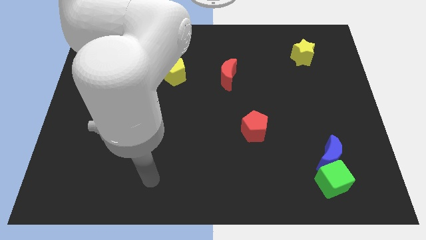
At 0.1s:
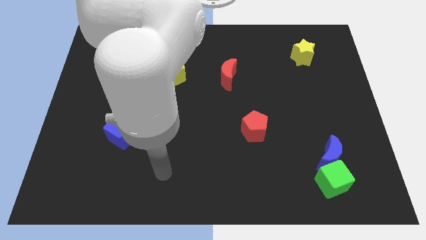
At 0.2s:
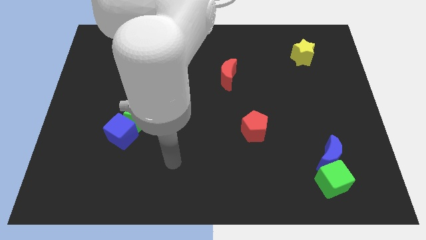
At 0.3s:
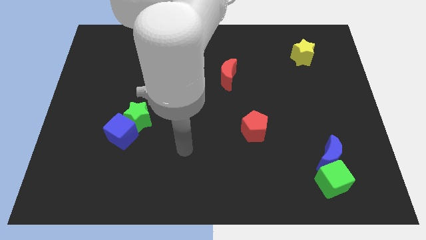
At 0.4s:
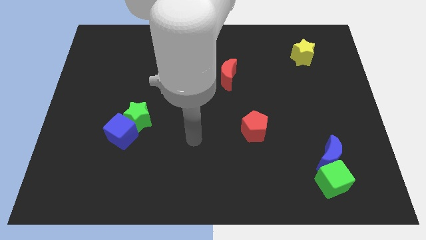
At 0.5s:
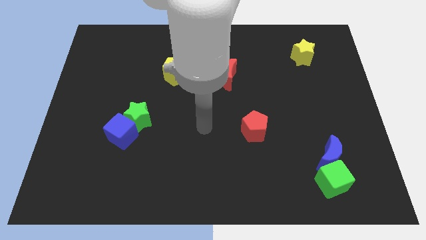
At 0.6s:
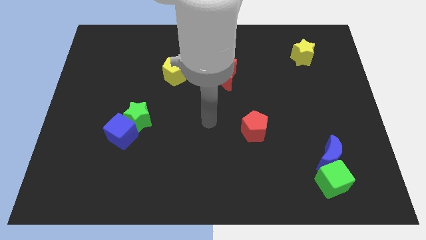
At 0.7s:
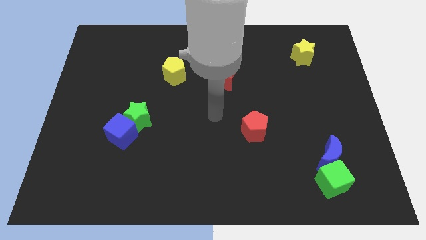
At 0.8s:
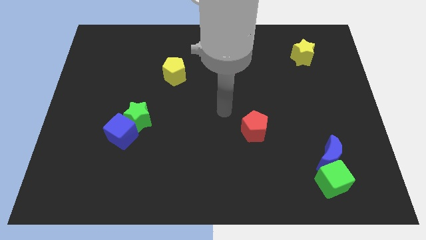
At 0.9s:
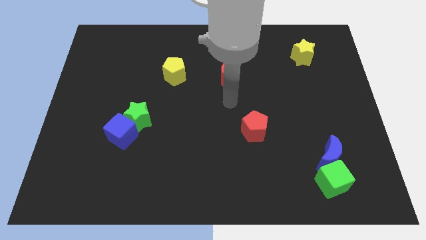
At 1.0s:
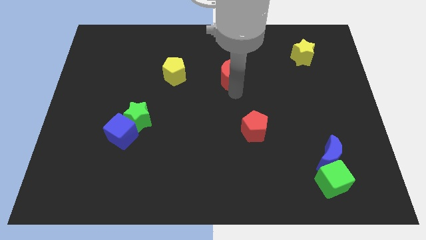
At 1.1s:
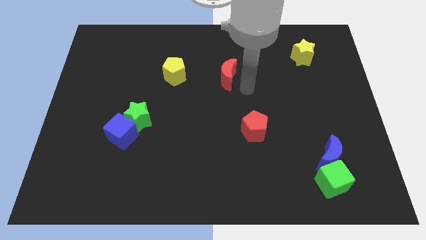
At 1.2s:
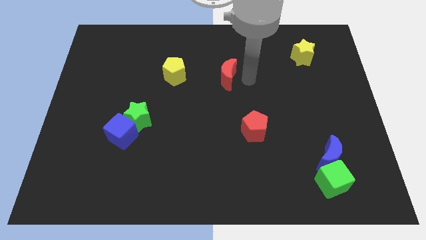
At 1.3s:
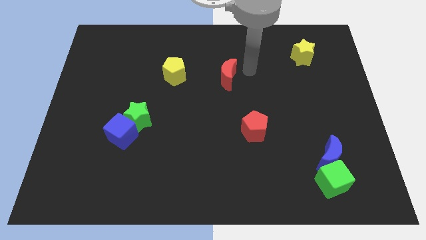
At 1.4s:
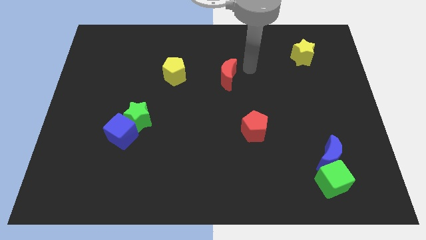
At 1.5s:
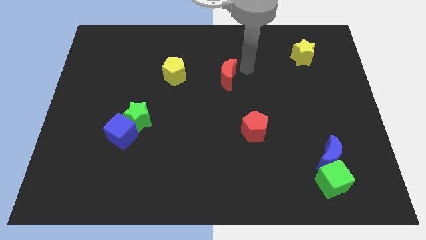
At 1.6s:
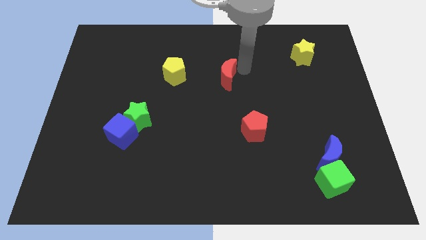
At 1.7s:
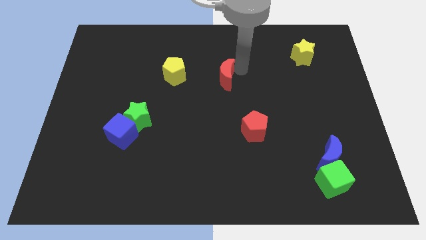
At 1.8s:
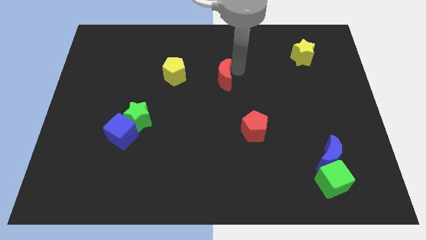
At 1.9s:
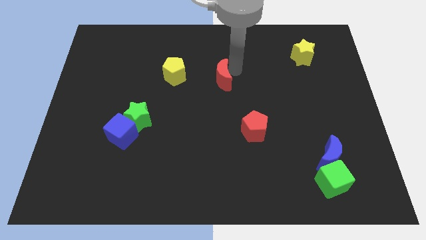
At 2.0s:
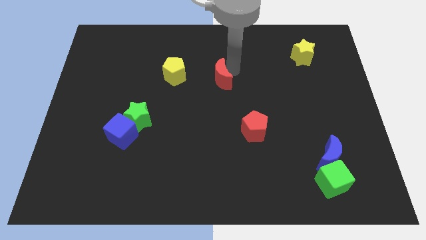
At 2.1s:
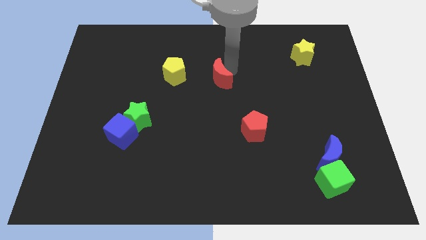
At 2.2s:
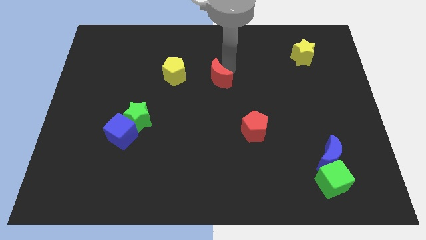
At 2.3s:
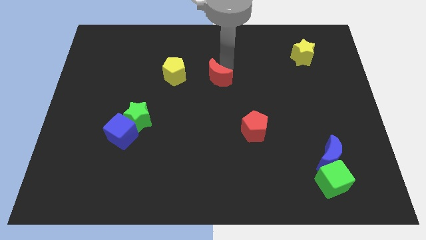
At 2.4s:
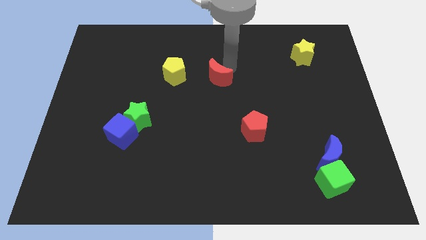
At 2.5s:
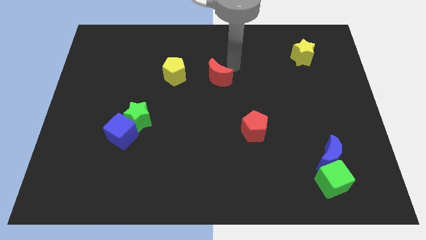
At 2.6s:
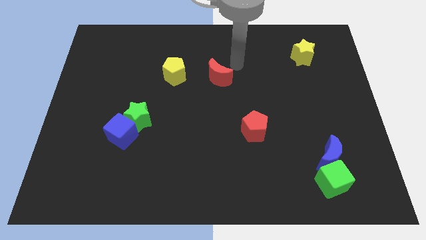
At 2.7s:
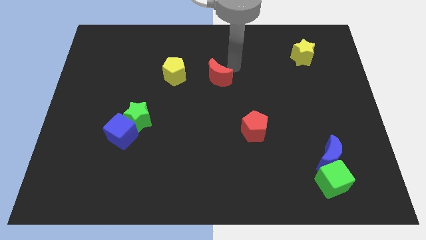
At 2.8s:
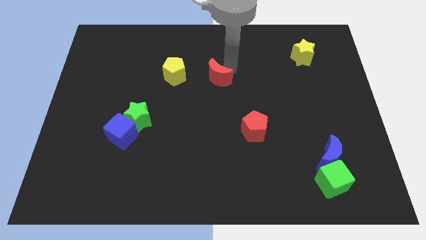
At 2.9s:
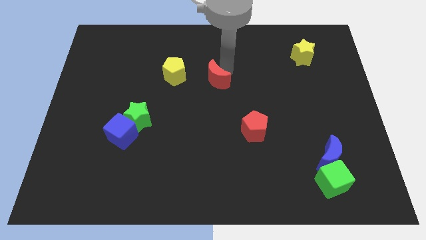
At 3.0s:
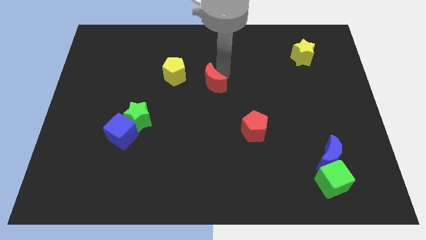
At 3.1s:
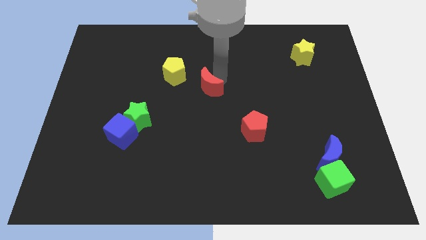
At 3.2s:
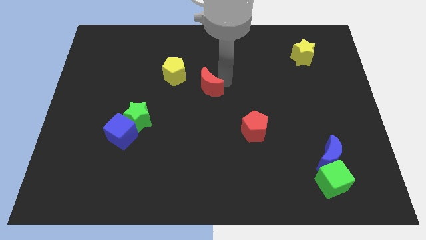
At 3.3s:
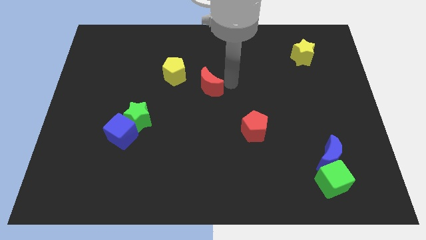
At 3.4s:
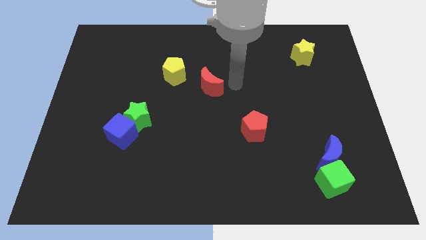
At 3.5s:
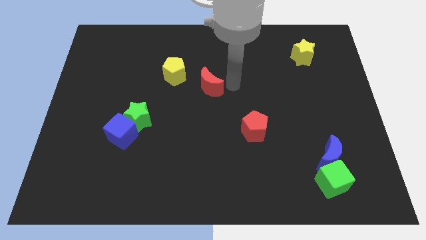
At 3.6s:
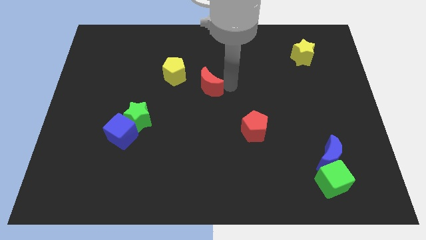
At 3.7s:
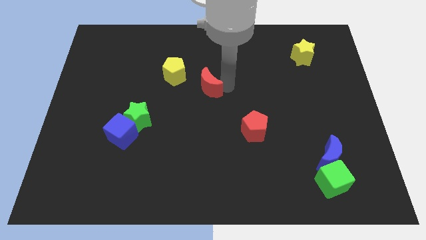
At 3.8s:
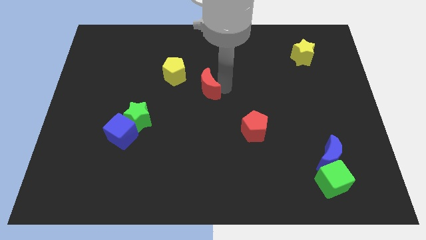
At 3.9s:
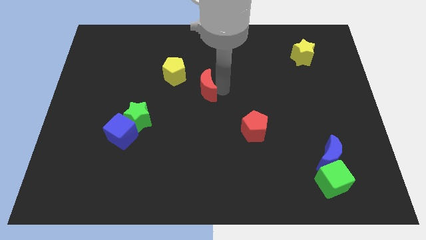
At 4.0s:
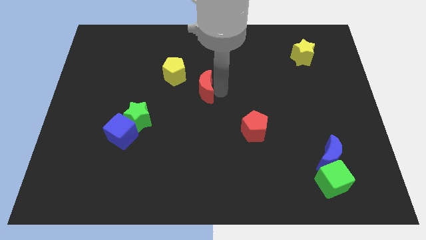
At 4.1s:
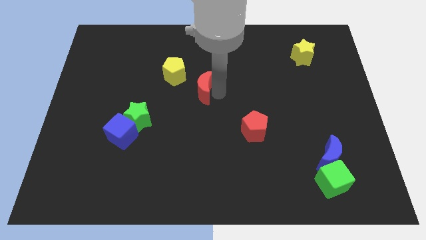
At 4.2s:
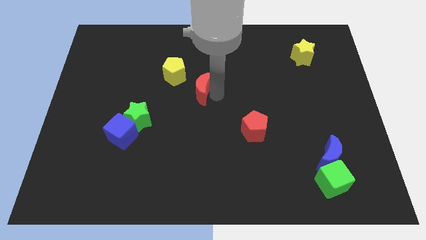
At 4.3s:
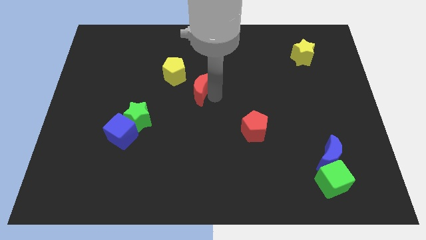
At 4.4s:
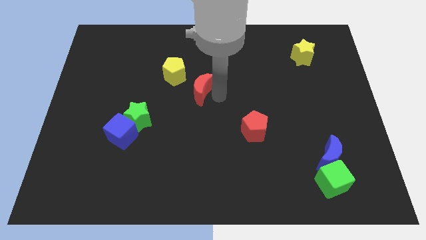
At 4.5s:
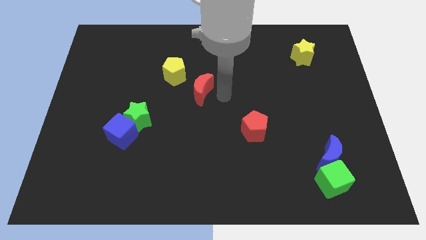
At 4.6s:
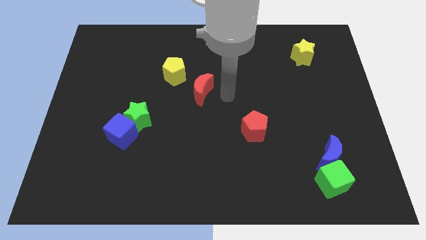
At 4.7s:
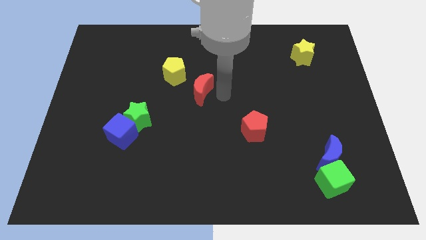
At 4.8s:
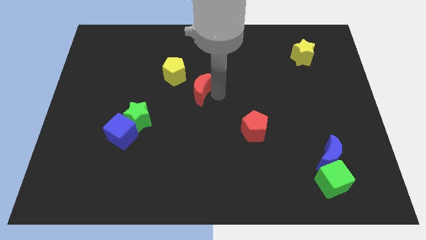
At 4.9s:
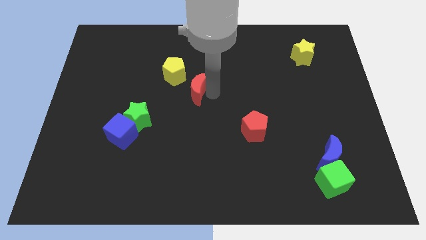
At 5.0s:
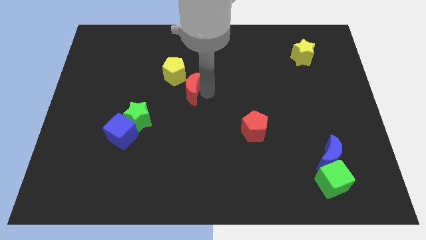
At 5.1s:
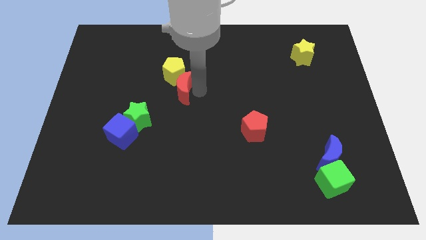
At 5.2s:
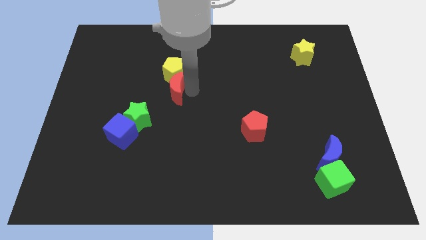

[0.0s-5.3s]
put the red moon to the bottom left of the yellow pentagon

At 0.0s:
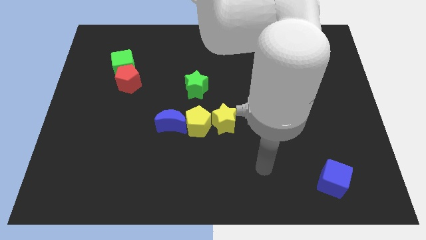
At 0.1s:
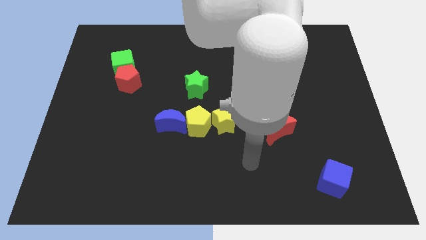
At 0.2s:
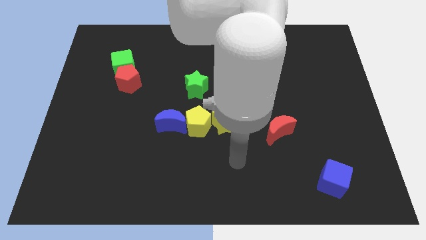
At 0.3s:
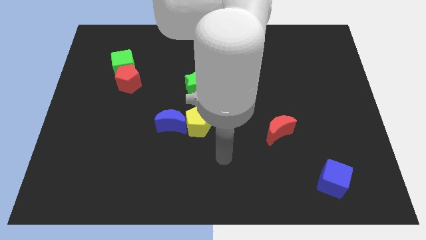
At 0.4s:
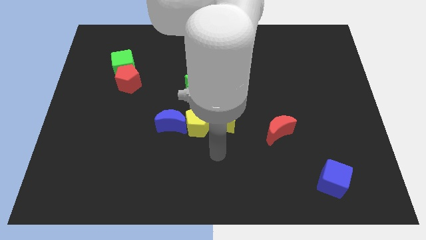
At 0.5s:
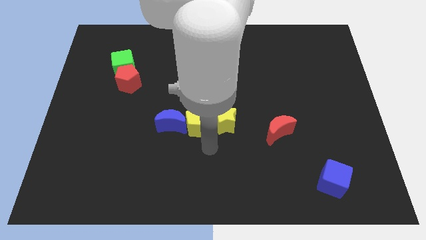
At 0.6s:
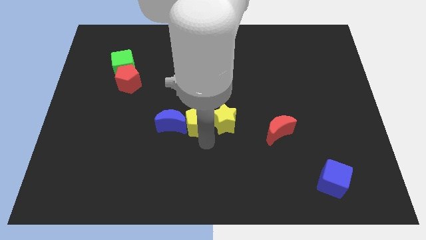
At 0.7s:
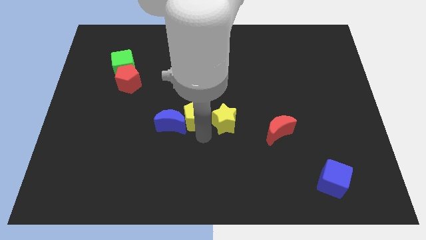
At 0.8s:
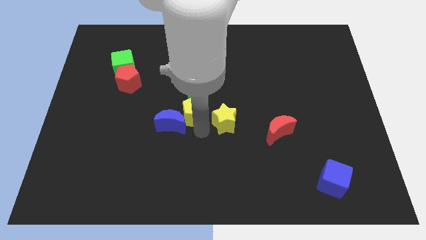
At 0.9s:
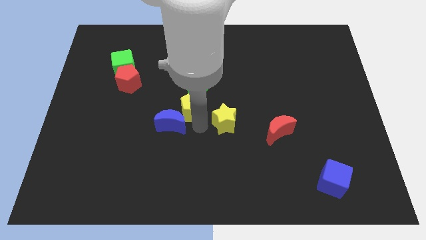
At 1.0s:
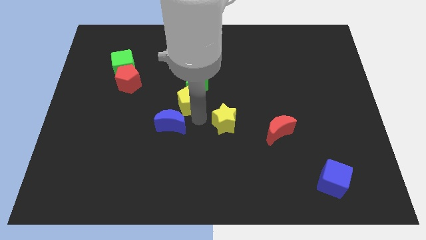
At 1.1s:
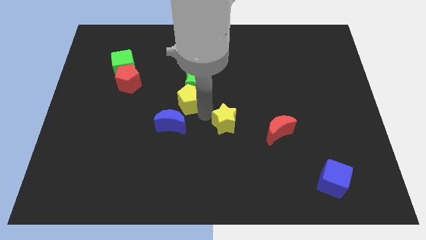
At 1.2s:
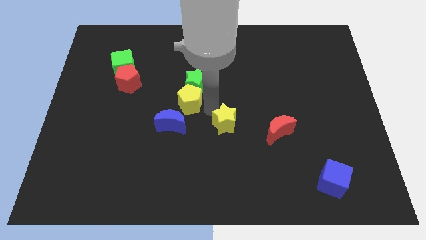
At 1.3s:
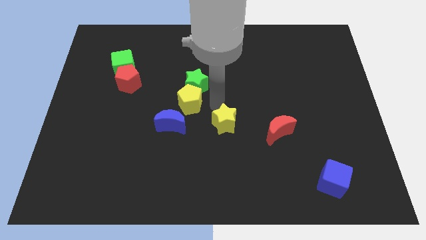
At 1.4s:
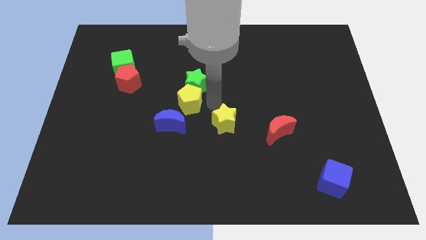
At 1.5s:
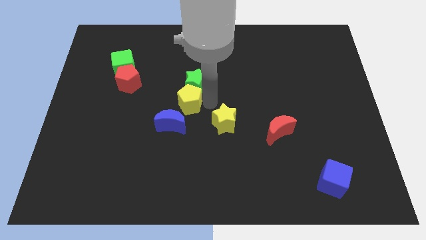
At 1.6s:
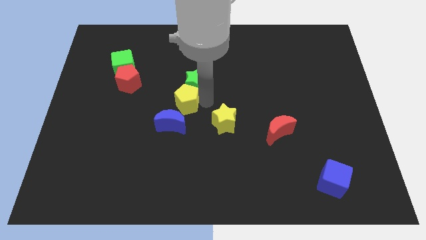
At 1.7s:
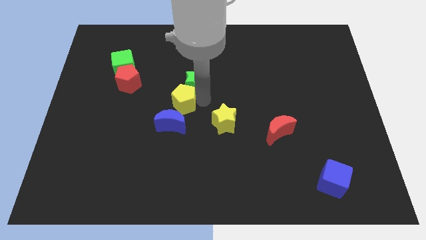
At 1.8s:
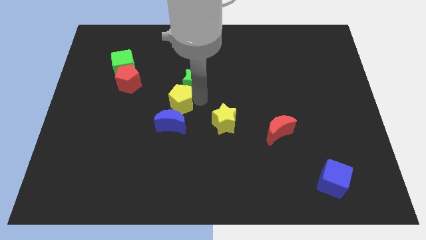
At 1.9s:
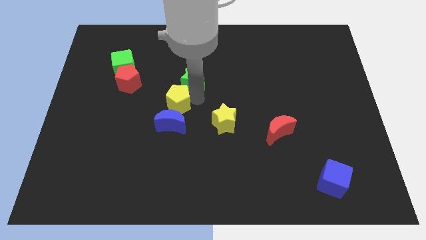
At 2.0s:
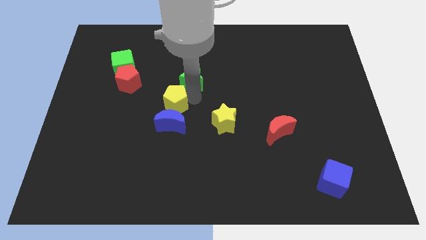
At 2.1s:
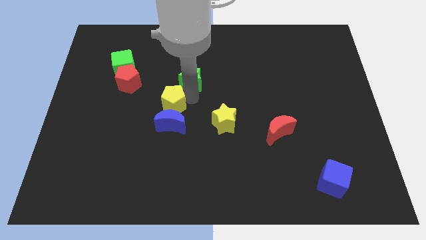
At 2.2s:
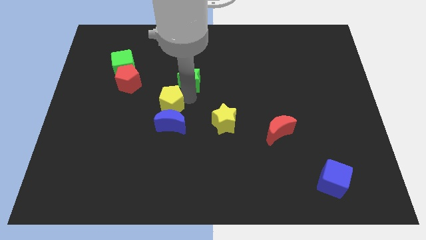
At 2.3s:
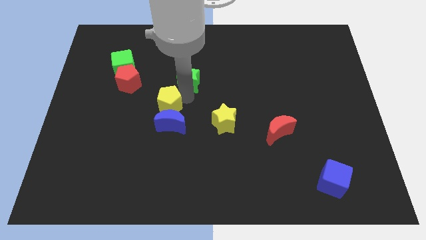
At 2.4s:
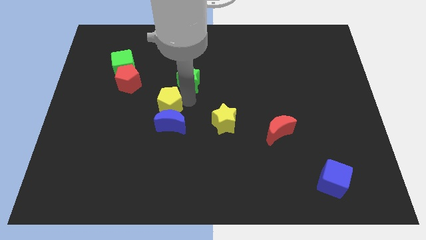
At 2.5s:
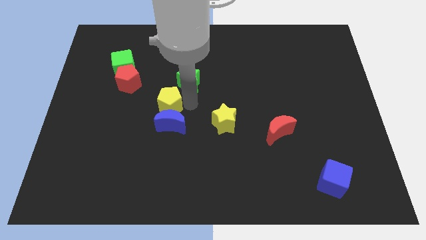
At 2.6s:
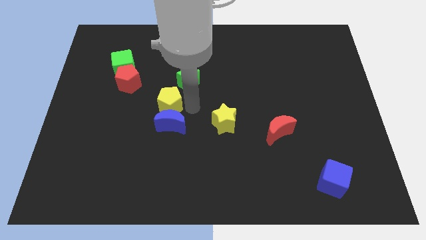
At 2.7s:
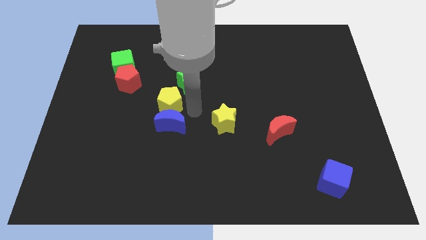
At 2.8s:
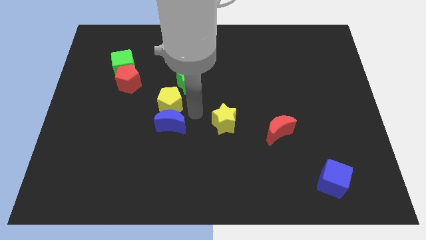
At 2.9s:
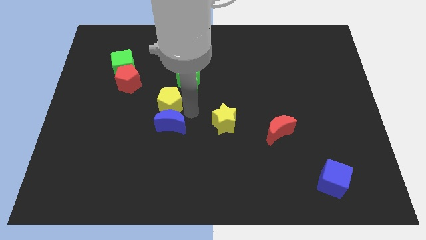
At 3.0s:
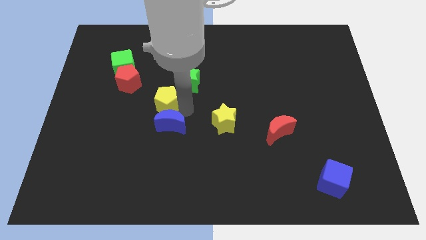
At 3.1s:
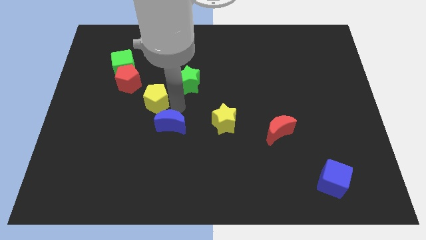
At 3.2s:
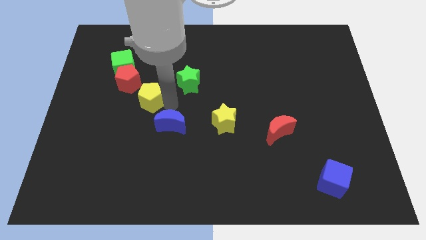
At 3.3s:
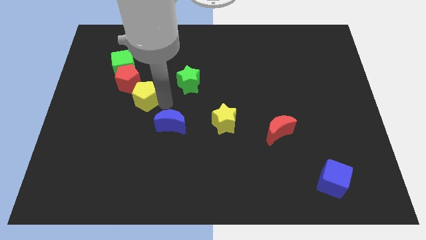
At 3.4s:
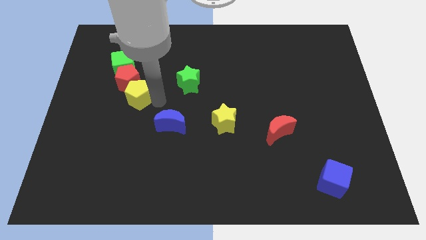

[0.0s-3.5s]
move the yellow pentagon below the green cube
